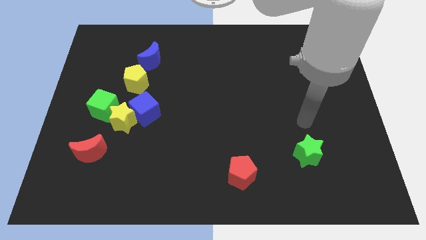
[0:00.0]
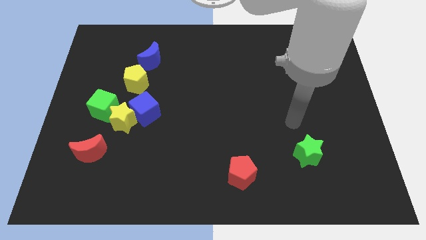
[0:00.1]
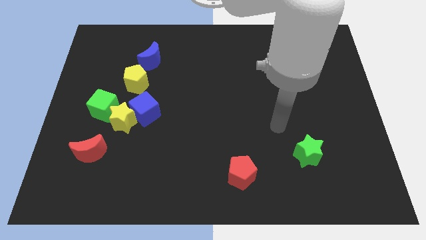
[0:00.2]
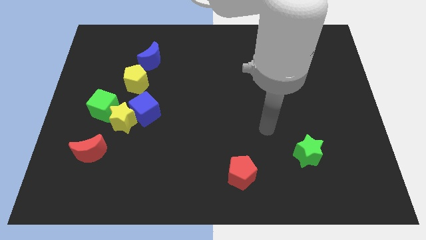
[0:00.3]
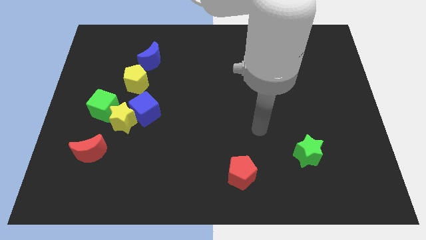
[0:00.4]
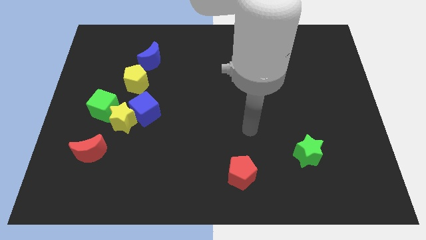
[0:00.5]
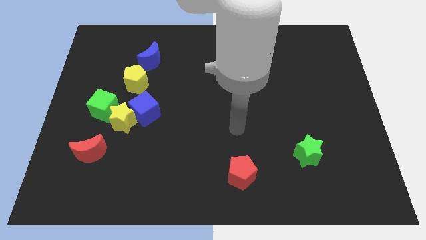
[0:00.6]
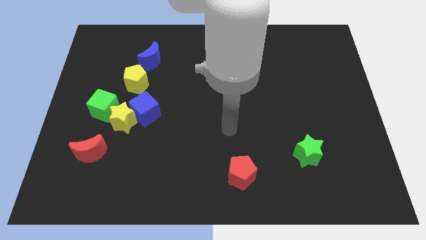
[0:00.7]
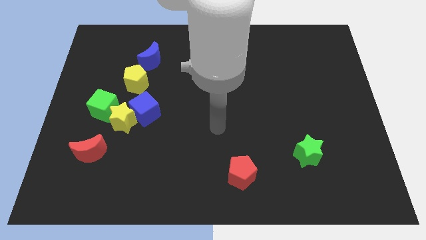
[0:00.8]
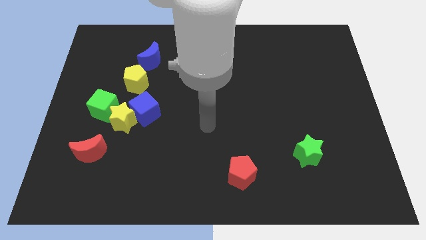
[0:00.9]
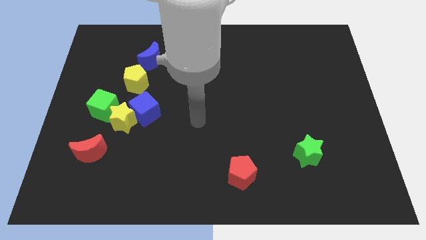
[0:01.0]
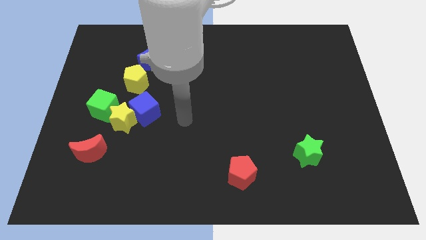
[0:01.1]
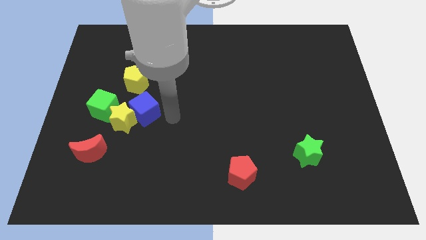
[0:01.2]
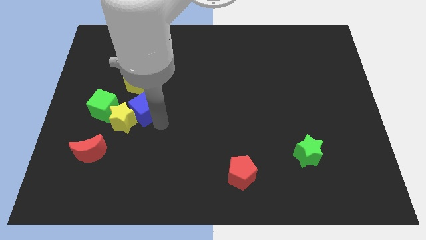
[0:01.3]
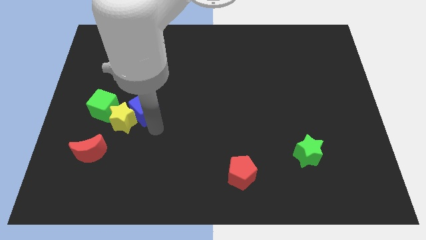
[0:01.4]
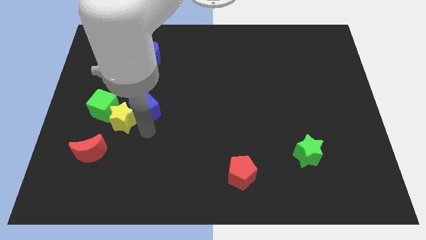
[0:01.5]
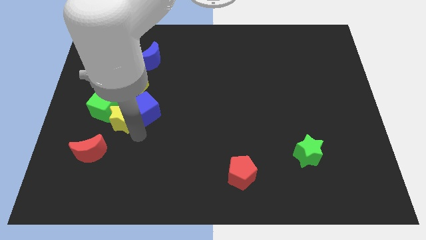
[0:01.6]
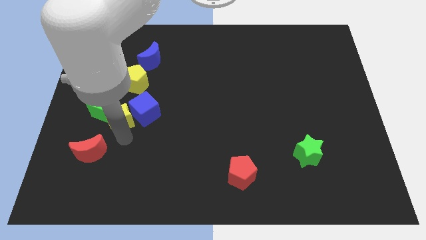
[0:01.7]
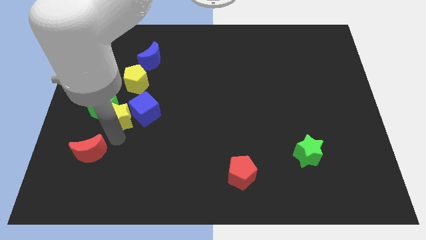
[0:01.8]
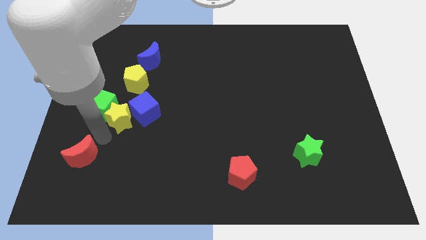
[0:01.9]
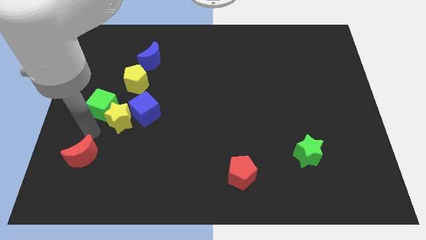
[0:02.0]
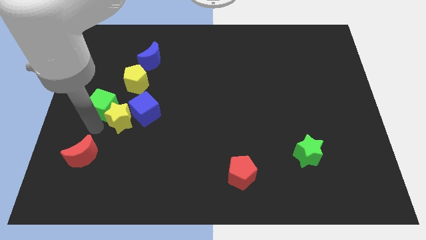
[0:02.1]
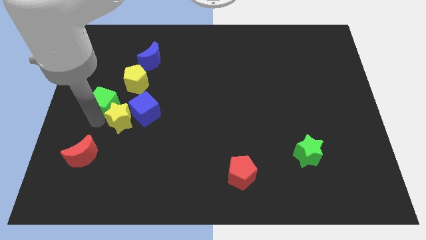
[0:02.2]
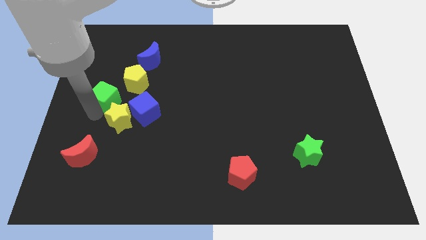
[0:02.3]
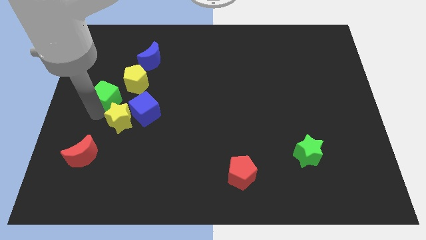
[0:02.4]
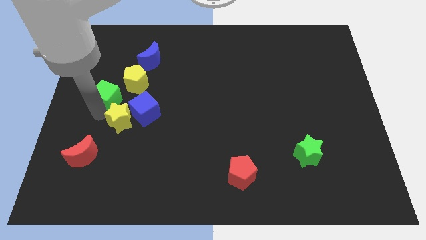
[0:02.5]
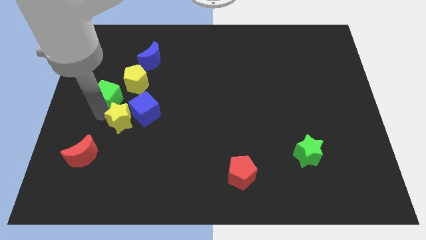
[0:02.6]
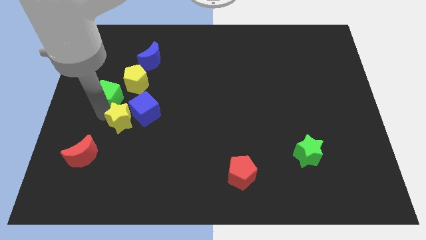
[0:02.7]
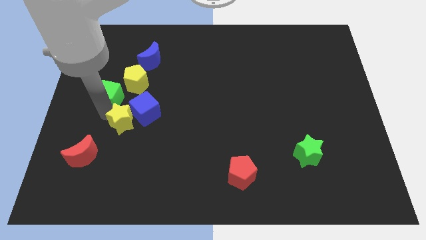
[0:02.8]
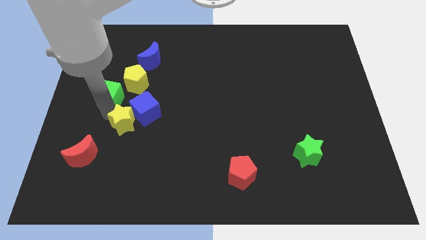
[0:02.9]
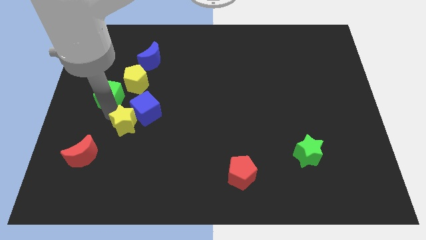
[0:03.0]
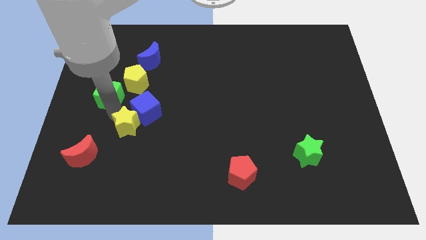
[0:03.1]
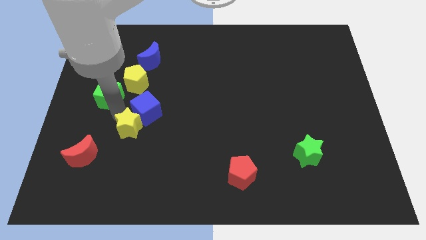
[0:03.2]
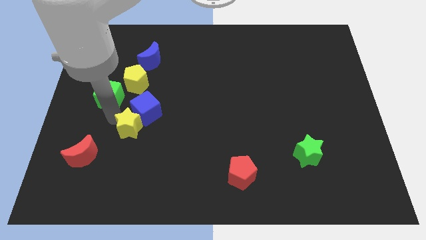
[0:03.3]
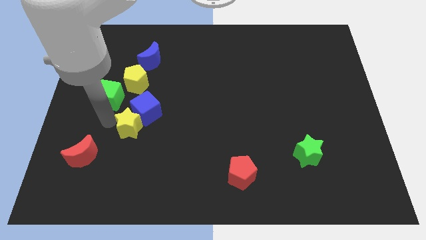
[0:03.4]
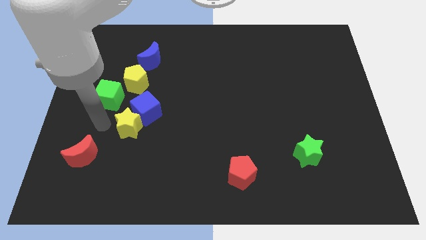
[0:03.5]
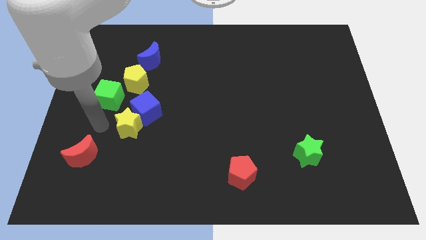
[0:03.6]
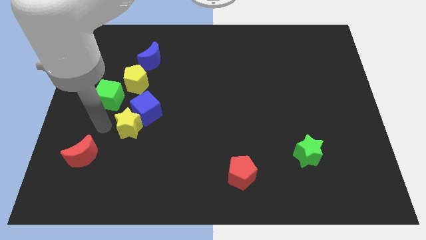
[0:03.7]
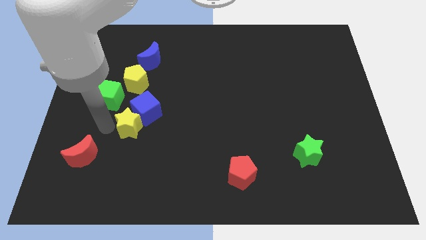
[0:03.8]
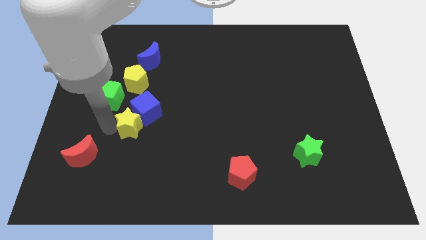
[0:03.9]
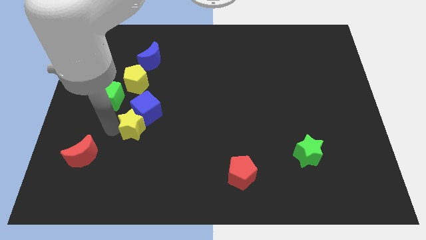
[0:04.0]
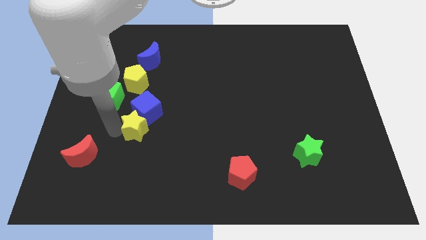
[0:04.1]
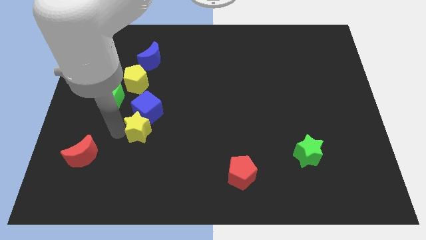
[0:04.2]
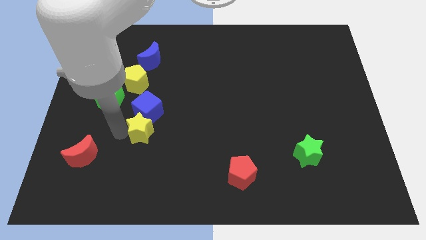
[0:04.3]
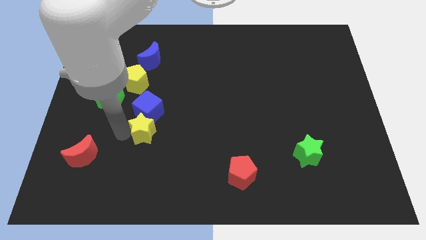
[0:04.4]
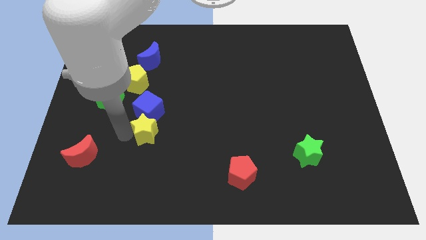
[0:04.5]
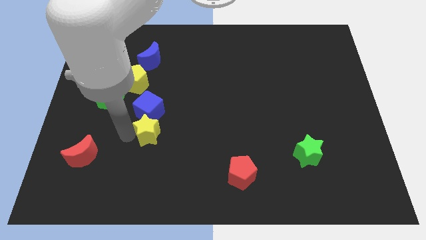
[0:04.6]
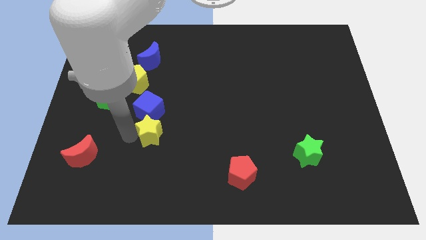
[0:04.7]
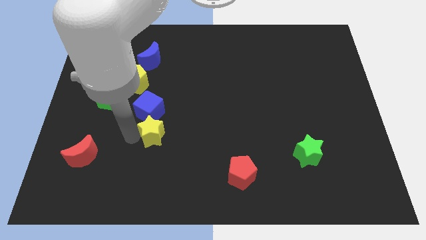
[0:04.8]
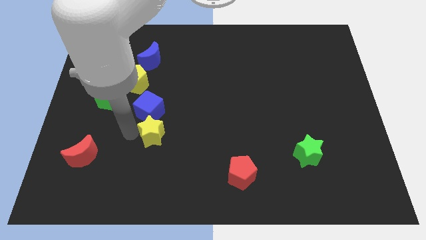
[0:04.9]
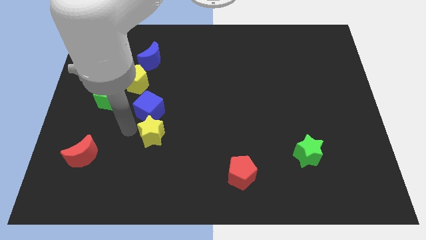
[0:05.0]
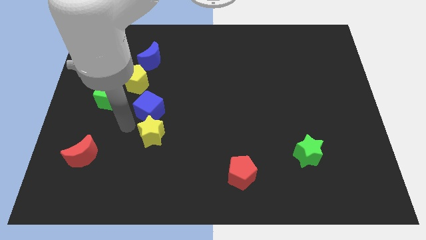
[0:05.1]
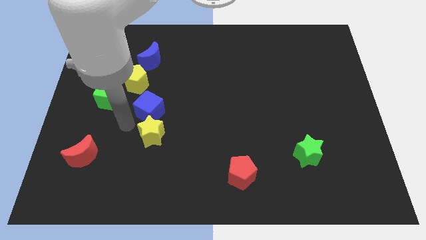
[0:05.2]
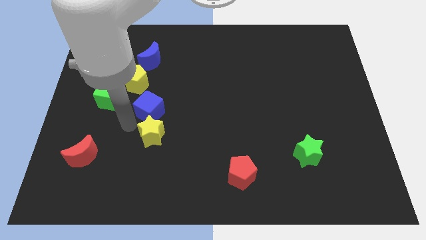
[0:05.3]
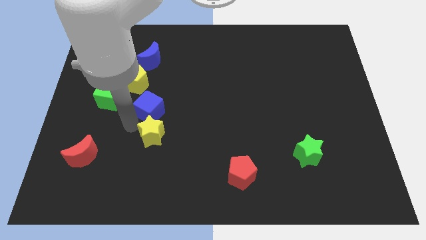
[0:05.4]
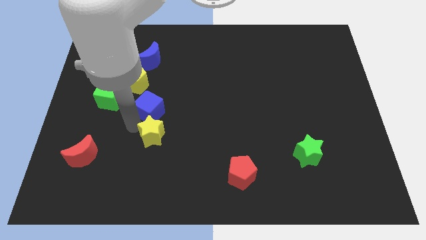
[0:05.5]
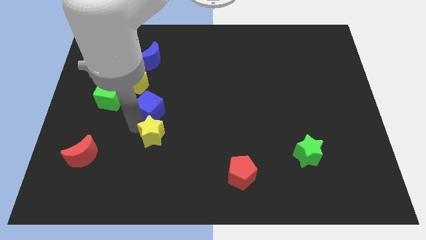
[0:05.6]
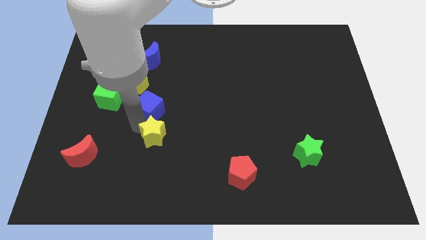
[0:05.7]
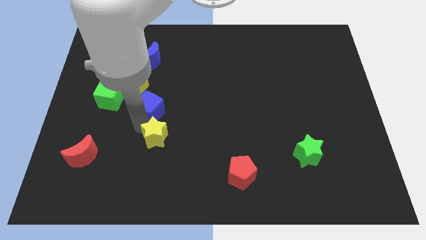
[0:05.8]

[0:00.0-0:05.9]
move the yellow star away from the blue cube, green cube, and red moon

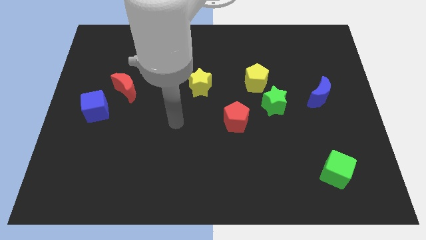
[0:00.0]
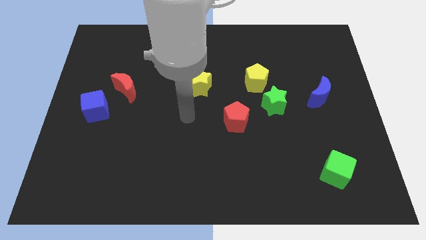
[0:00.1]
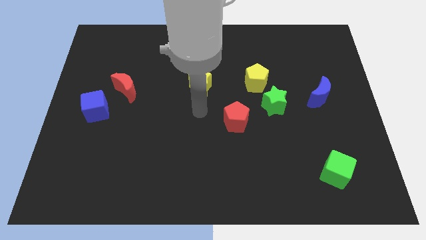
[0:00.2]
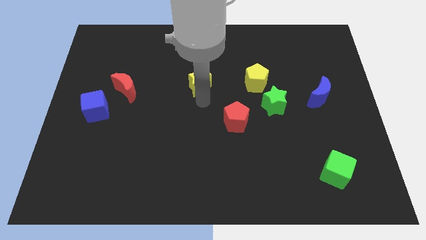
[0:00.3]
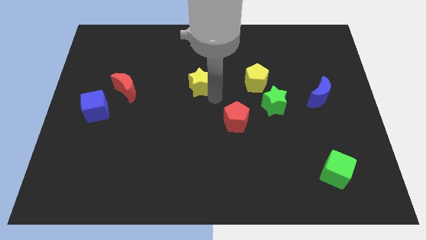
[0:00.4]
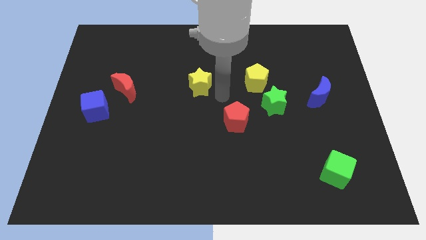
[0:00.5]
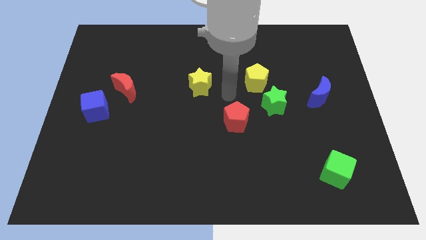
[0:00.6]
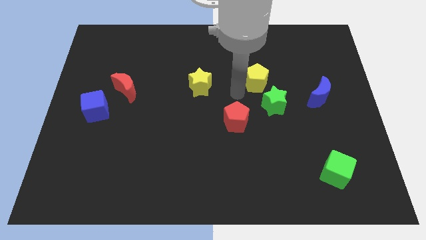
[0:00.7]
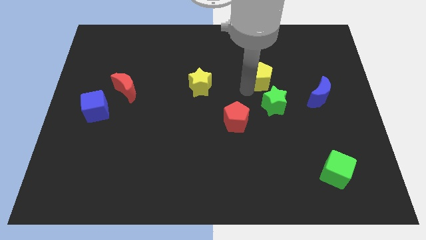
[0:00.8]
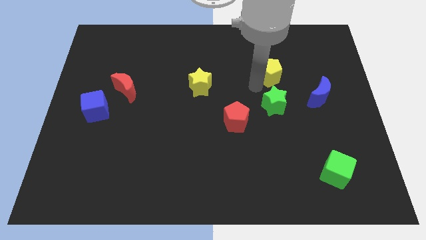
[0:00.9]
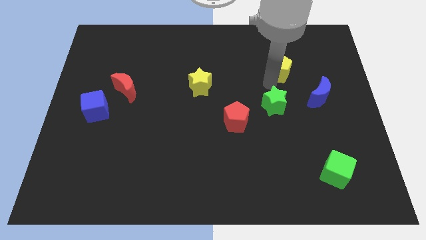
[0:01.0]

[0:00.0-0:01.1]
move the green star away from the yellow pentagon

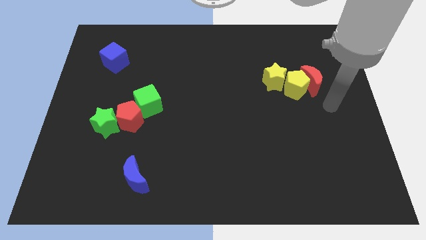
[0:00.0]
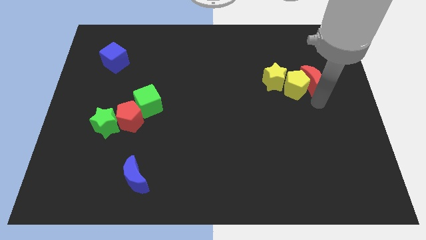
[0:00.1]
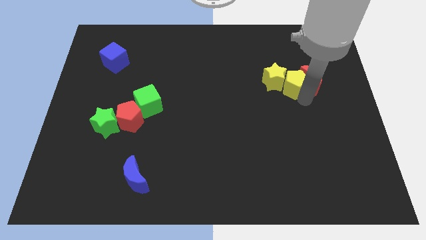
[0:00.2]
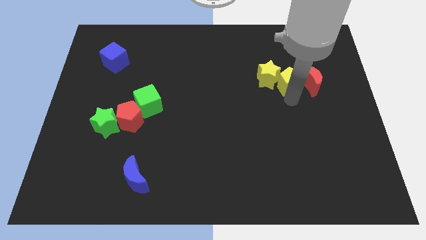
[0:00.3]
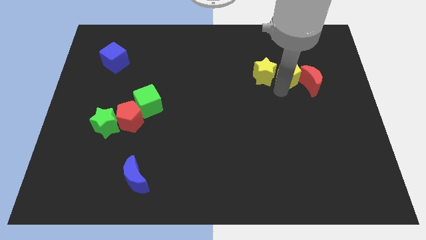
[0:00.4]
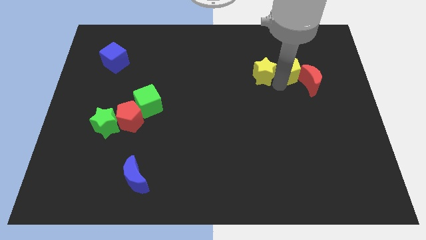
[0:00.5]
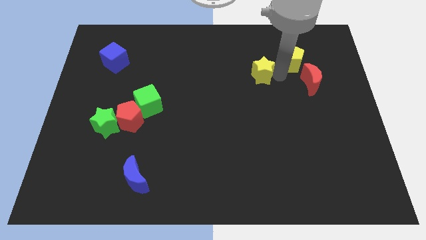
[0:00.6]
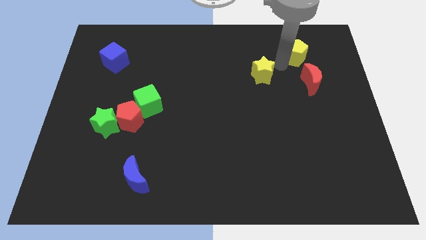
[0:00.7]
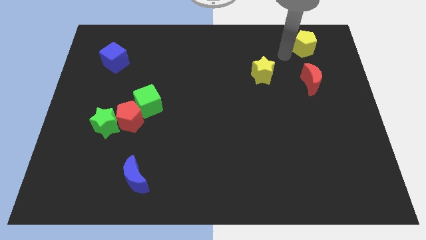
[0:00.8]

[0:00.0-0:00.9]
separate the yellow pentagon from the red moon and yellow star

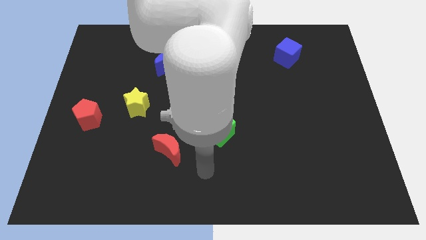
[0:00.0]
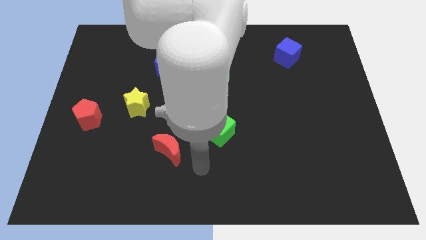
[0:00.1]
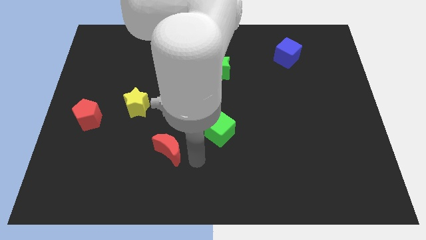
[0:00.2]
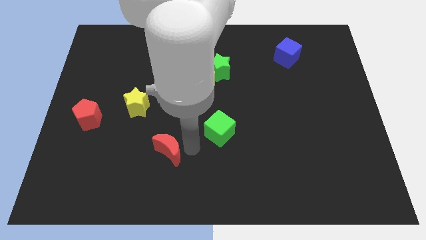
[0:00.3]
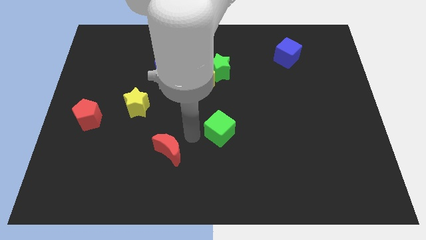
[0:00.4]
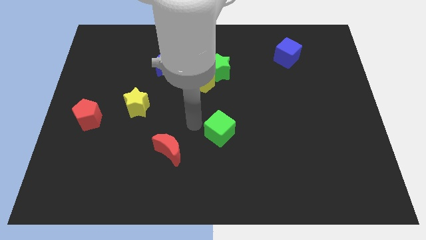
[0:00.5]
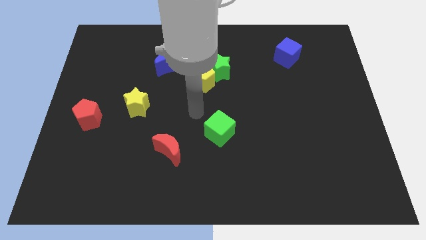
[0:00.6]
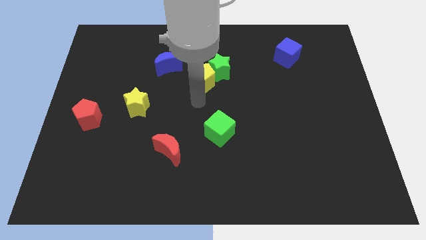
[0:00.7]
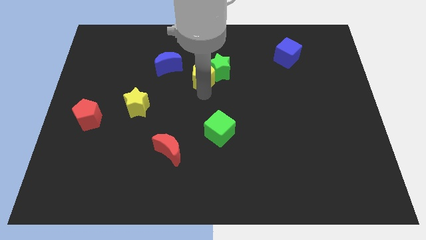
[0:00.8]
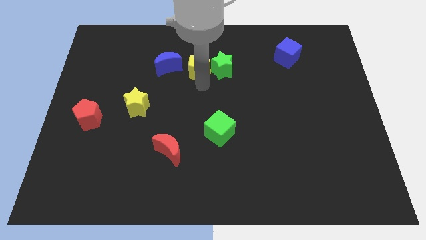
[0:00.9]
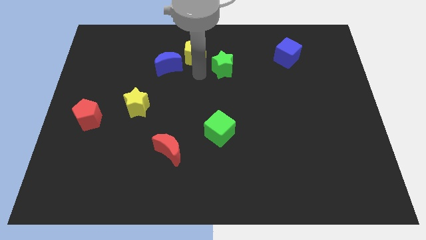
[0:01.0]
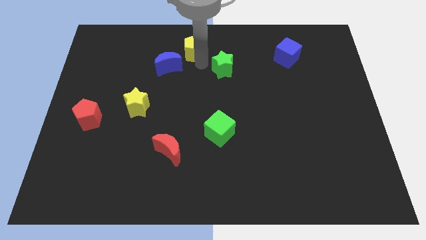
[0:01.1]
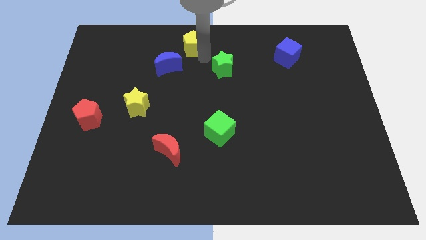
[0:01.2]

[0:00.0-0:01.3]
pull the green star apart from the yellow pentagon

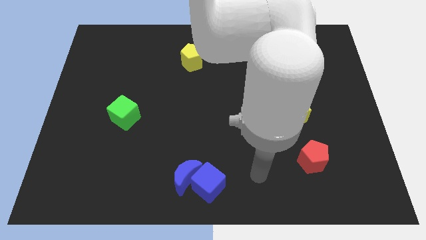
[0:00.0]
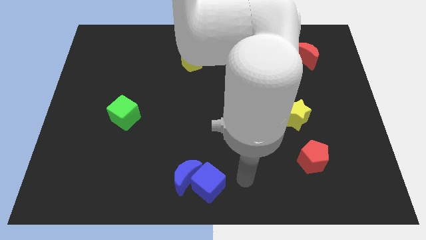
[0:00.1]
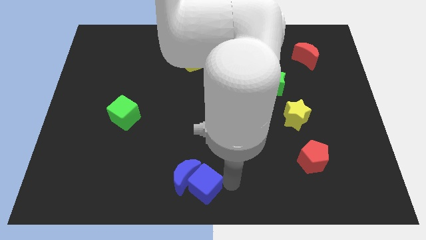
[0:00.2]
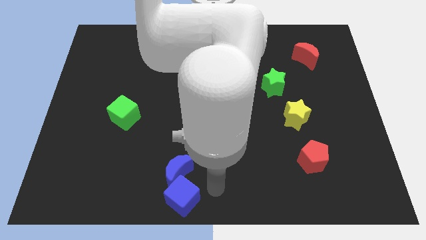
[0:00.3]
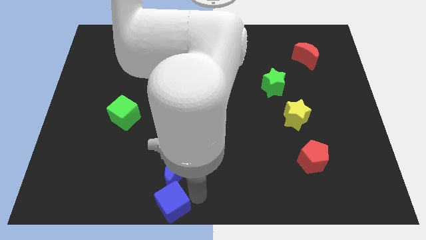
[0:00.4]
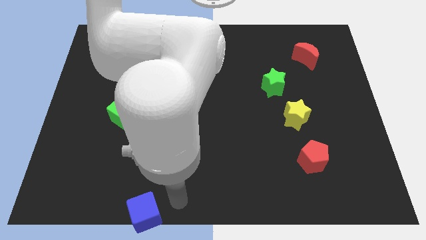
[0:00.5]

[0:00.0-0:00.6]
pull the blue moon apart from the blue cube
